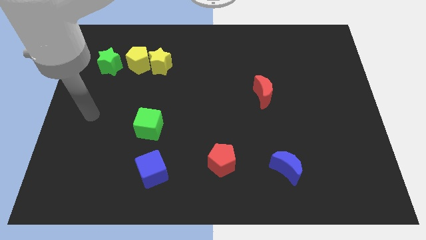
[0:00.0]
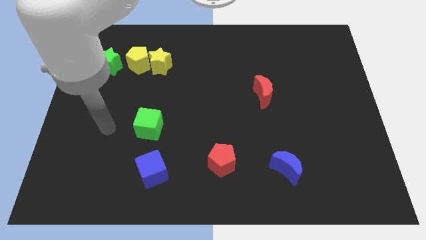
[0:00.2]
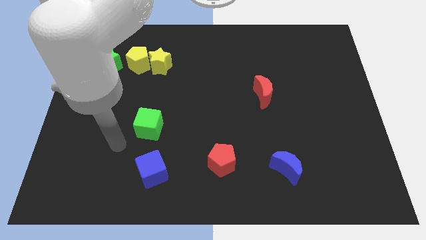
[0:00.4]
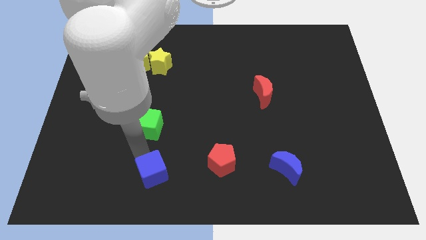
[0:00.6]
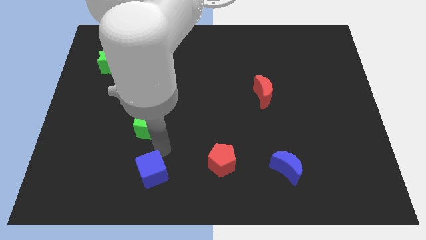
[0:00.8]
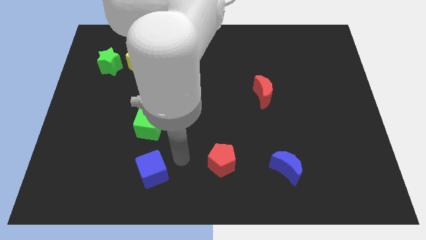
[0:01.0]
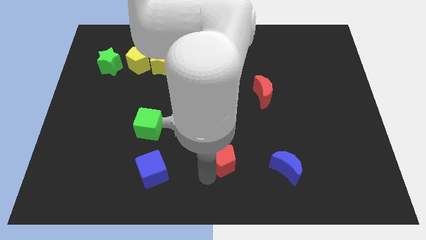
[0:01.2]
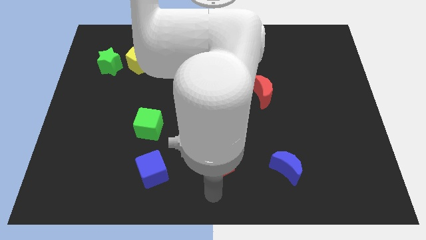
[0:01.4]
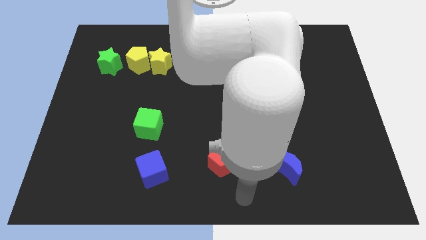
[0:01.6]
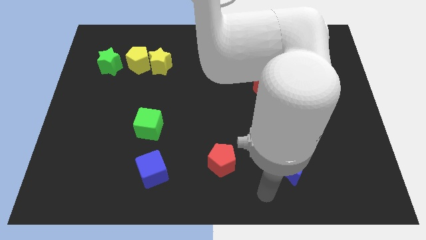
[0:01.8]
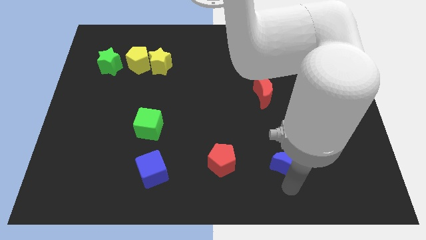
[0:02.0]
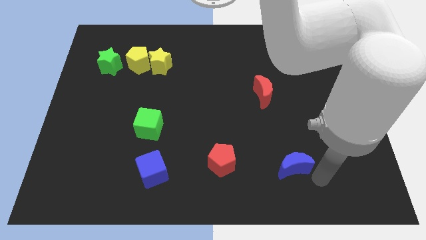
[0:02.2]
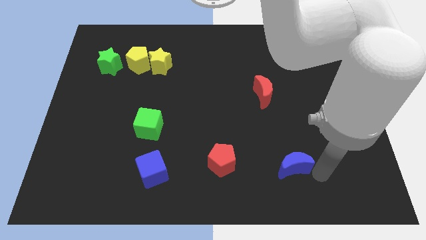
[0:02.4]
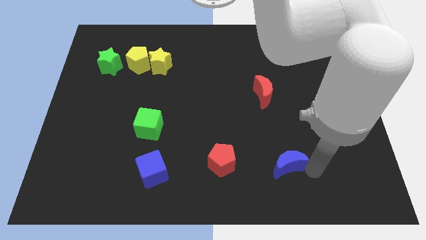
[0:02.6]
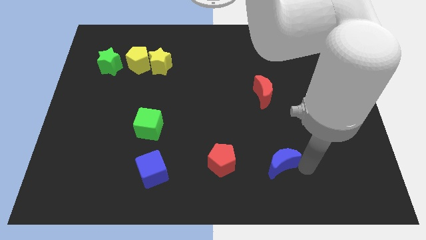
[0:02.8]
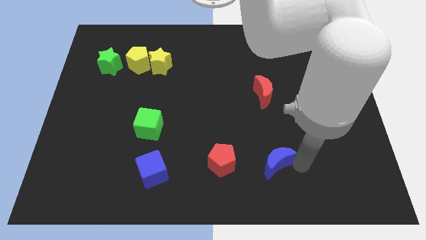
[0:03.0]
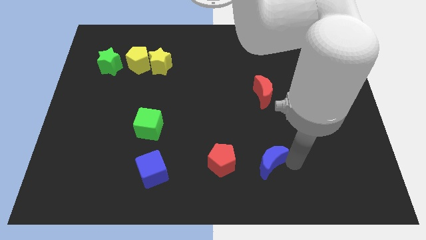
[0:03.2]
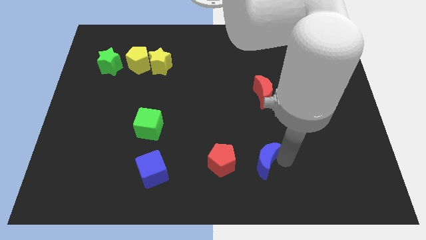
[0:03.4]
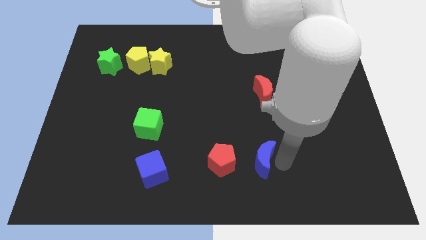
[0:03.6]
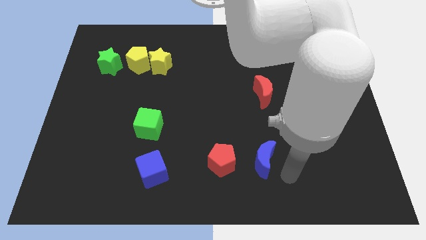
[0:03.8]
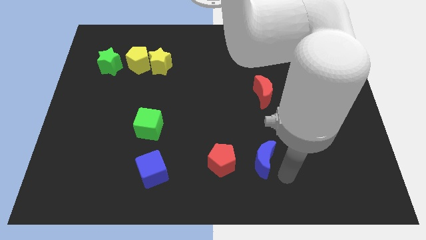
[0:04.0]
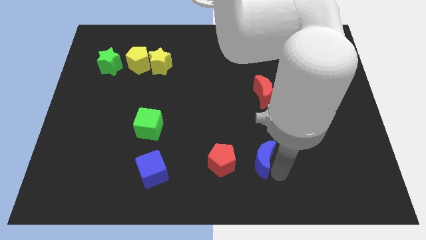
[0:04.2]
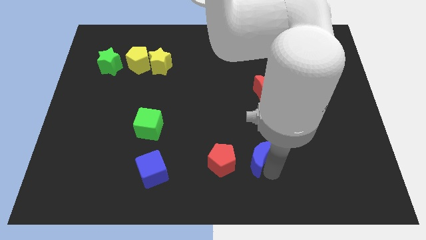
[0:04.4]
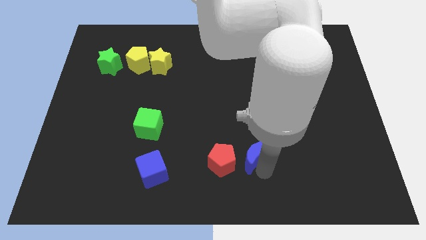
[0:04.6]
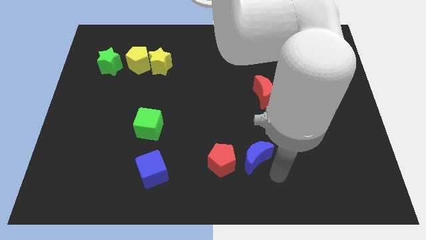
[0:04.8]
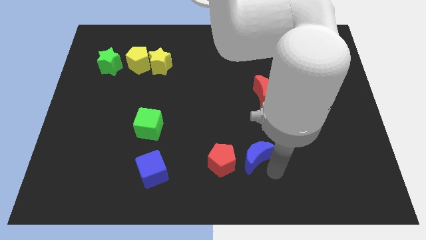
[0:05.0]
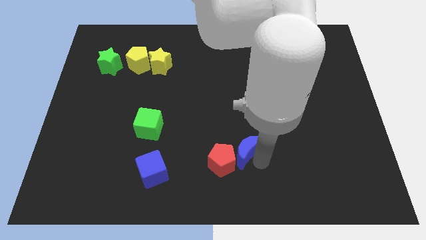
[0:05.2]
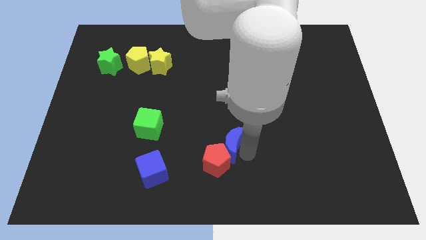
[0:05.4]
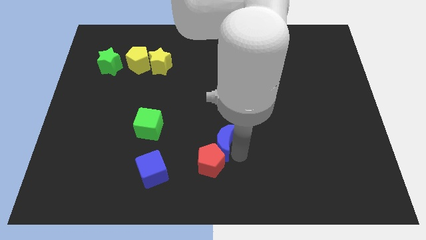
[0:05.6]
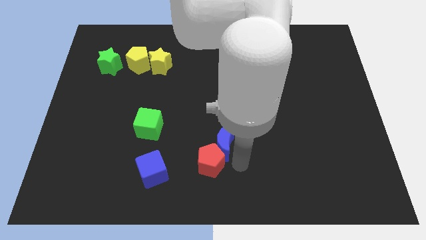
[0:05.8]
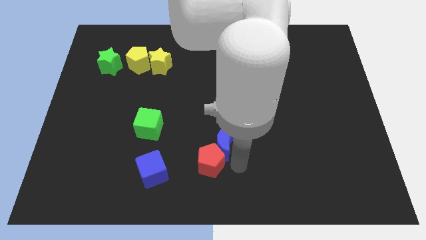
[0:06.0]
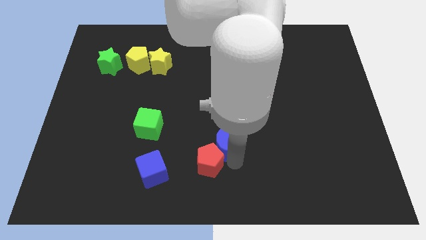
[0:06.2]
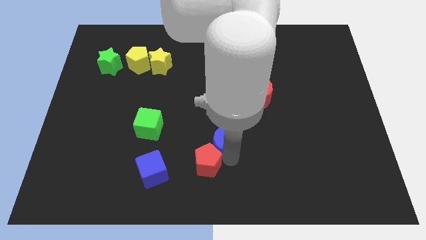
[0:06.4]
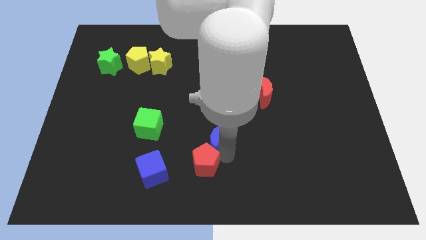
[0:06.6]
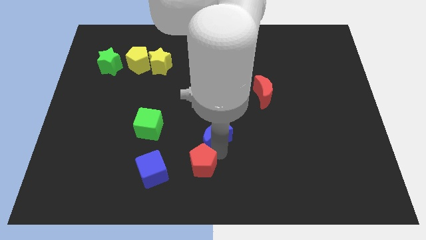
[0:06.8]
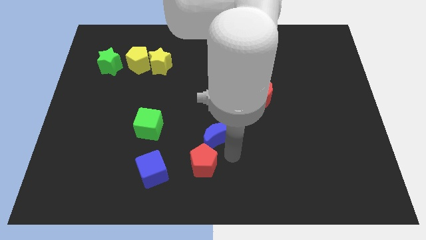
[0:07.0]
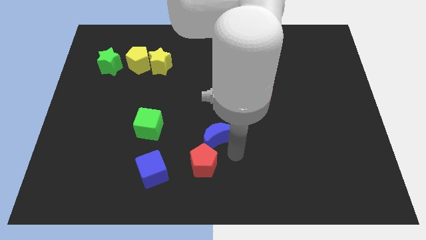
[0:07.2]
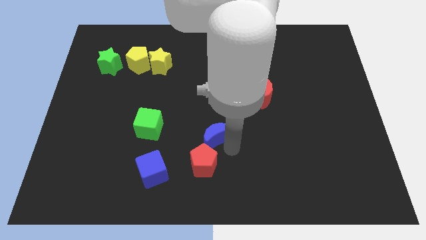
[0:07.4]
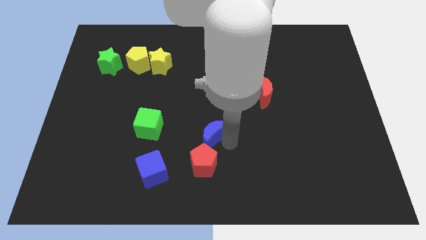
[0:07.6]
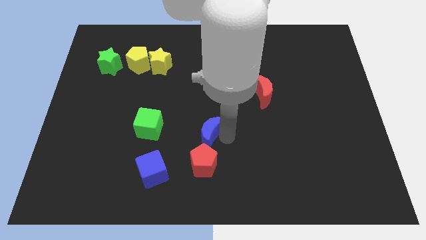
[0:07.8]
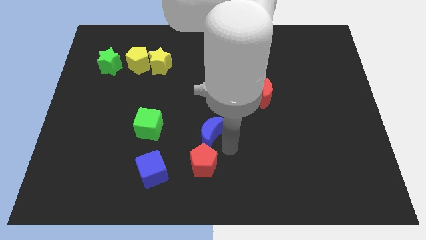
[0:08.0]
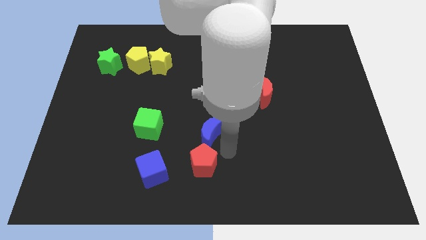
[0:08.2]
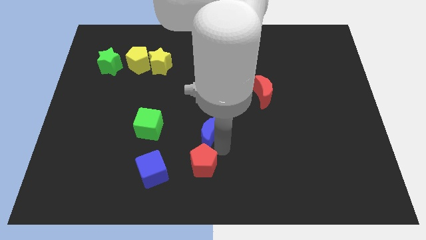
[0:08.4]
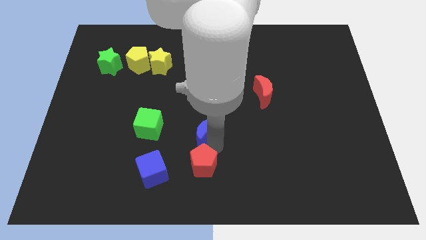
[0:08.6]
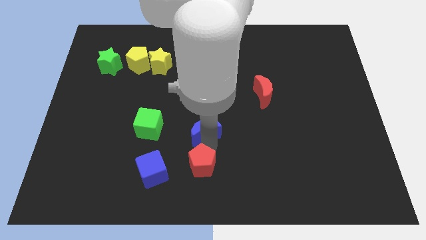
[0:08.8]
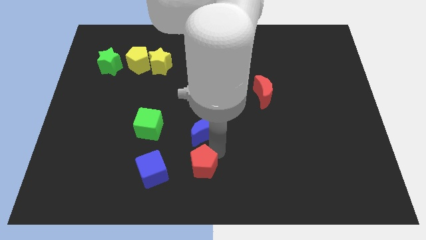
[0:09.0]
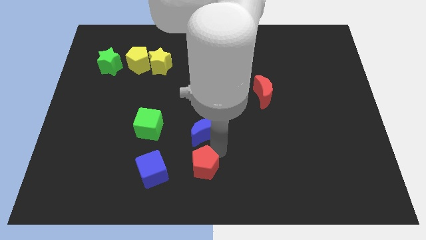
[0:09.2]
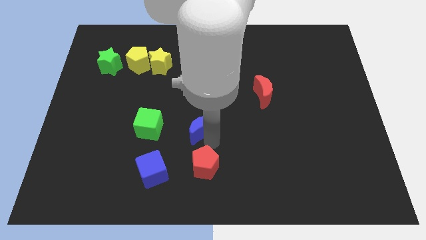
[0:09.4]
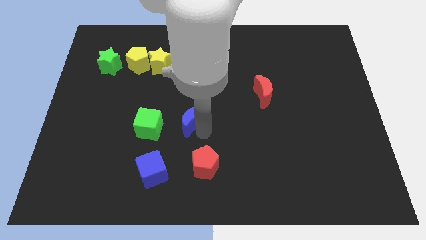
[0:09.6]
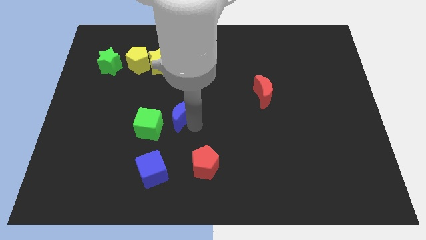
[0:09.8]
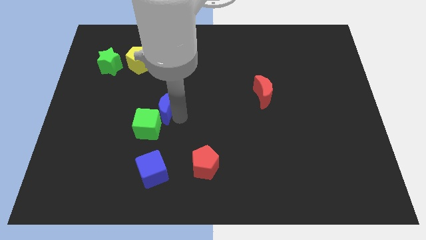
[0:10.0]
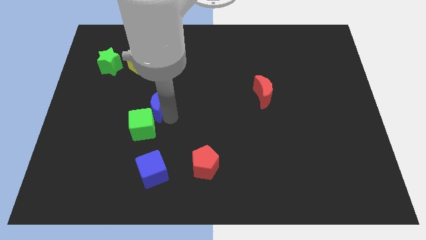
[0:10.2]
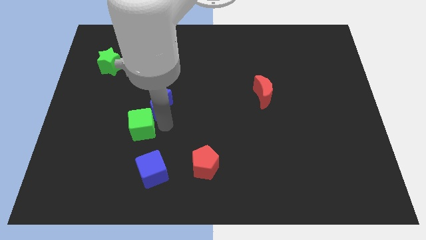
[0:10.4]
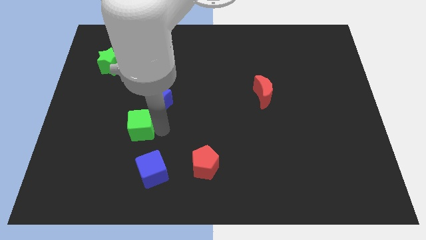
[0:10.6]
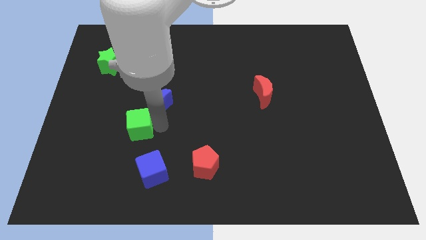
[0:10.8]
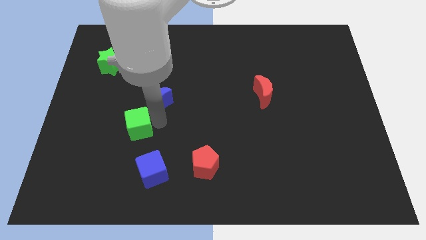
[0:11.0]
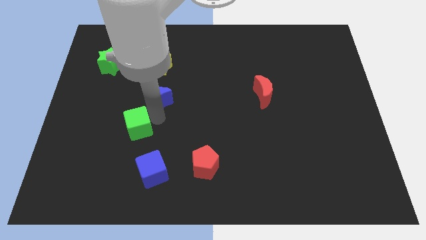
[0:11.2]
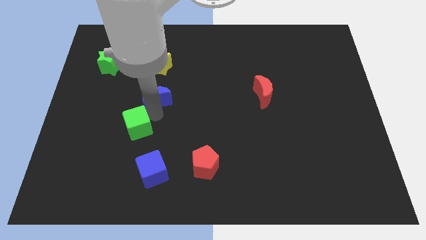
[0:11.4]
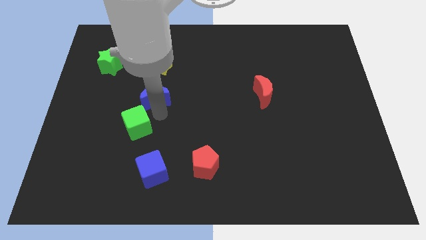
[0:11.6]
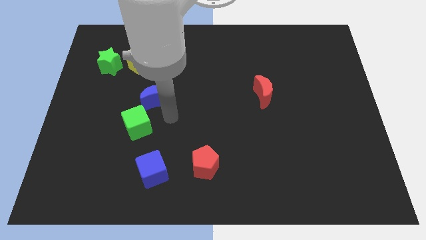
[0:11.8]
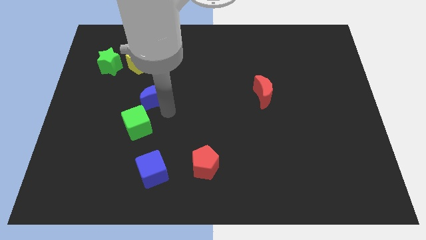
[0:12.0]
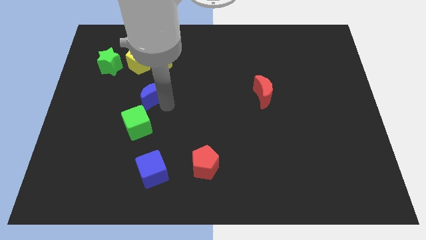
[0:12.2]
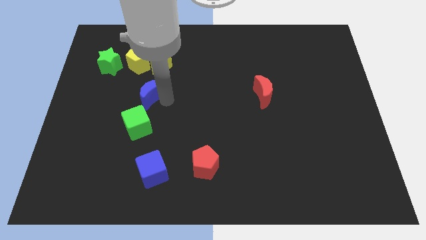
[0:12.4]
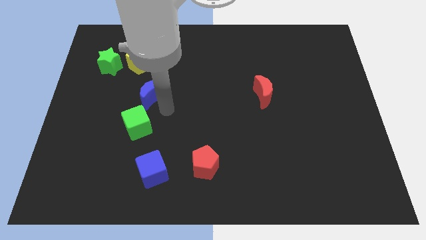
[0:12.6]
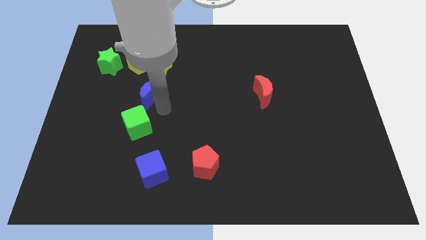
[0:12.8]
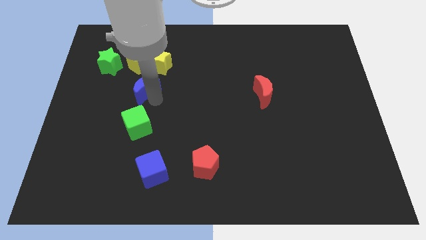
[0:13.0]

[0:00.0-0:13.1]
push the blue moon to the bottom left side of the yellow star

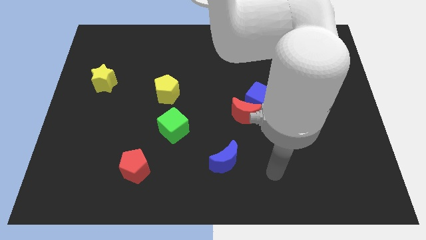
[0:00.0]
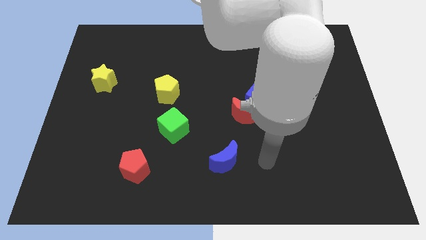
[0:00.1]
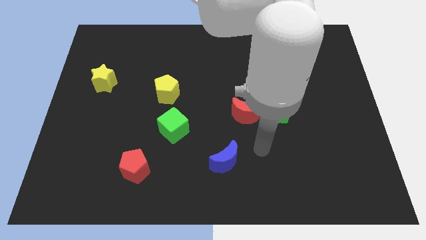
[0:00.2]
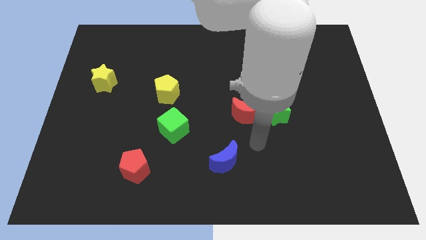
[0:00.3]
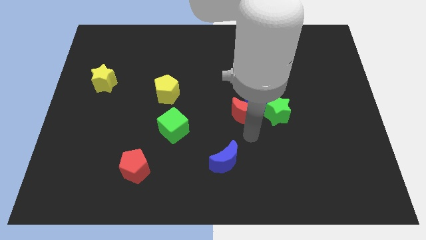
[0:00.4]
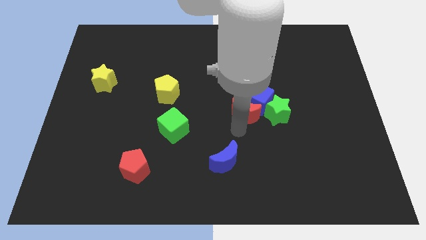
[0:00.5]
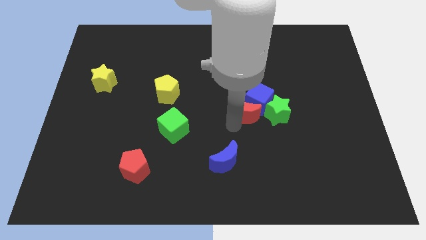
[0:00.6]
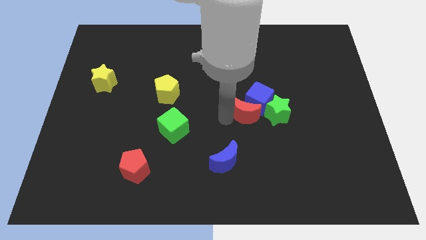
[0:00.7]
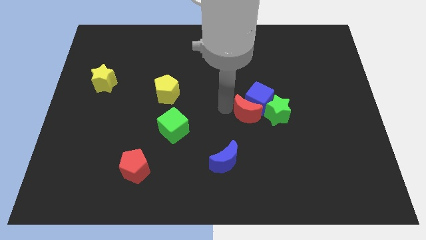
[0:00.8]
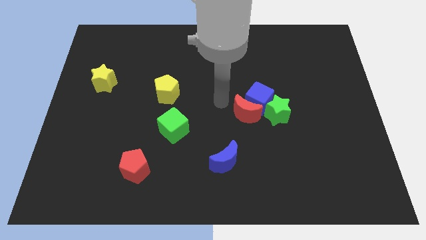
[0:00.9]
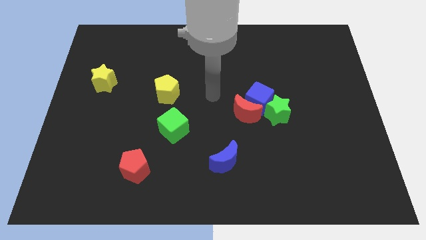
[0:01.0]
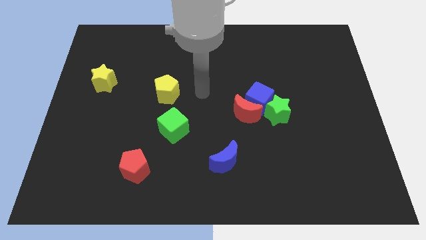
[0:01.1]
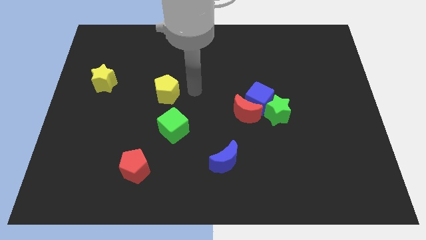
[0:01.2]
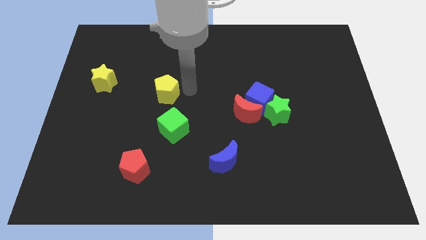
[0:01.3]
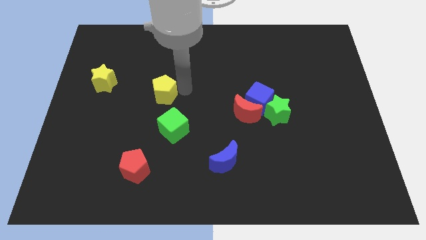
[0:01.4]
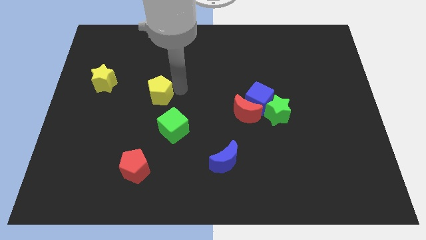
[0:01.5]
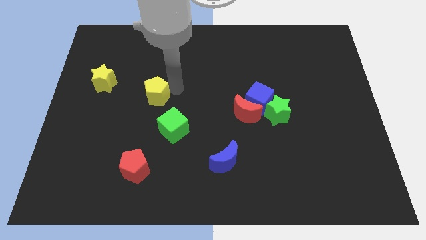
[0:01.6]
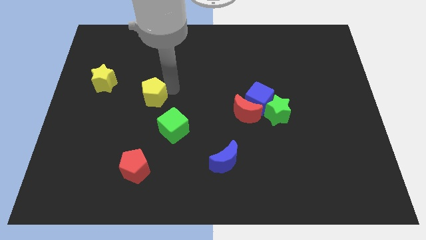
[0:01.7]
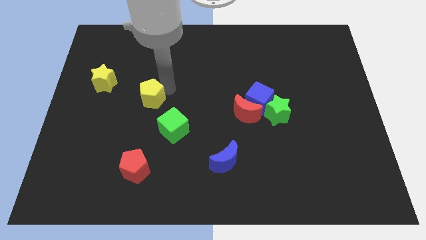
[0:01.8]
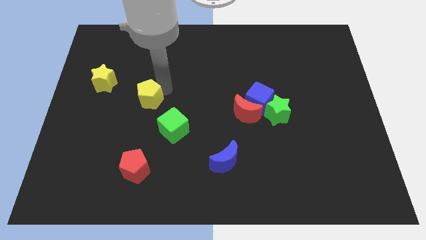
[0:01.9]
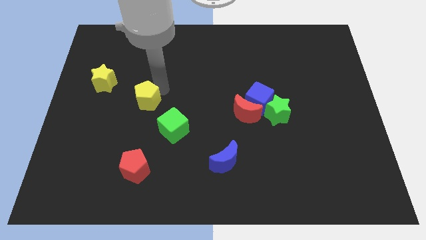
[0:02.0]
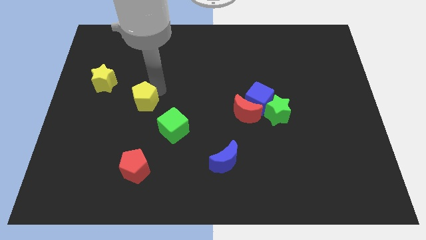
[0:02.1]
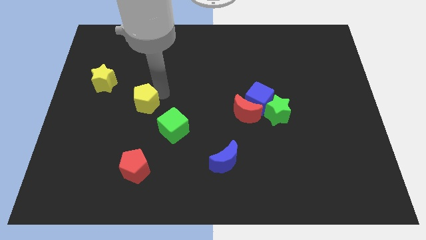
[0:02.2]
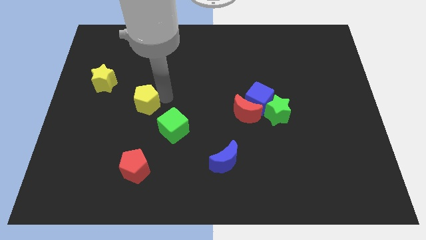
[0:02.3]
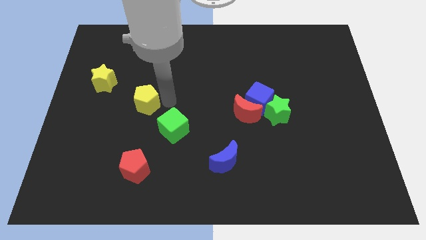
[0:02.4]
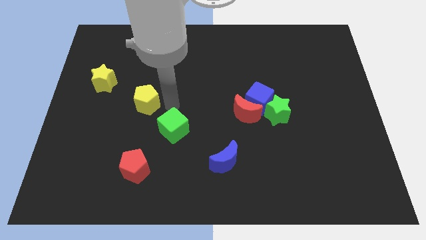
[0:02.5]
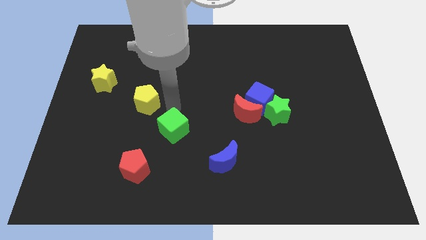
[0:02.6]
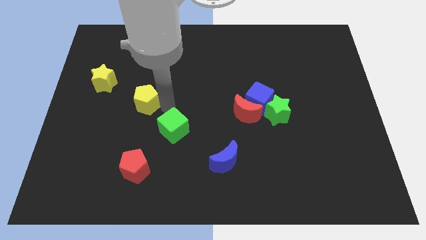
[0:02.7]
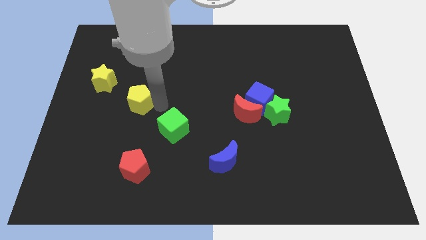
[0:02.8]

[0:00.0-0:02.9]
slide the yellow pentagon to the bottom right of the yellow star
